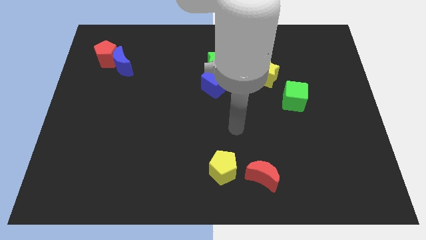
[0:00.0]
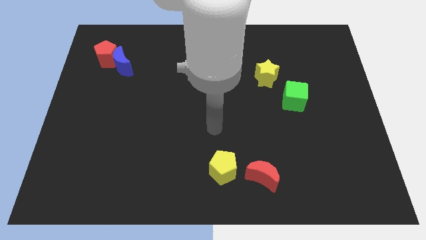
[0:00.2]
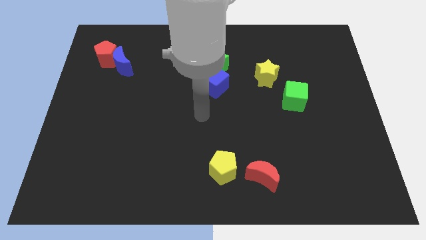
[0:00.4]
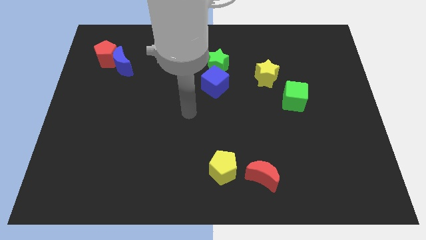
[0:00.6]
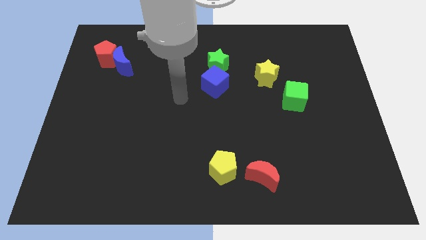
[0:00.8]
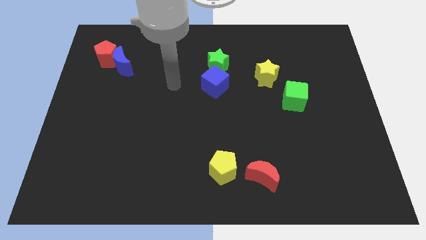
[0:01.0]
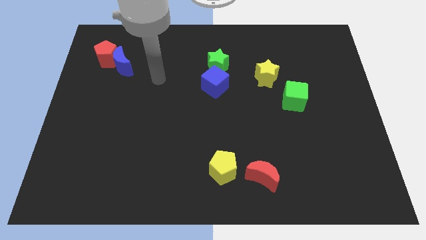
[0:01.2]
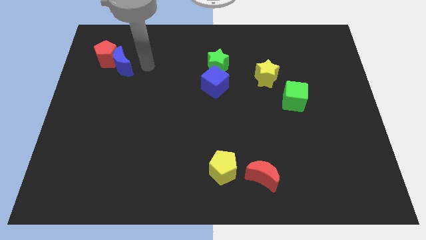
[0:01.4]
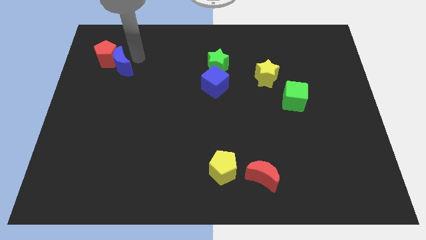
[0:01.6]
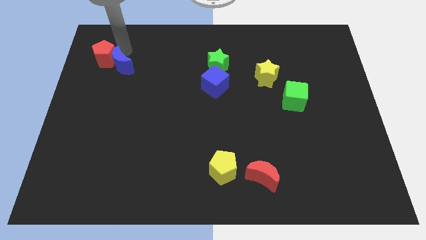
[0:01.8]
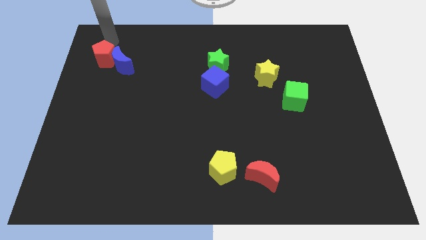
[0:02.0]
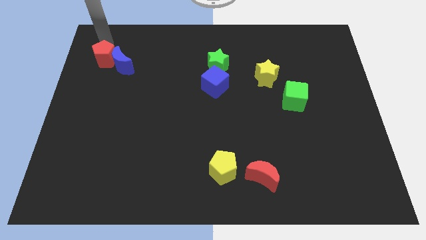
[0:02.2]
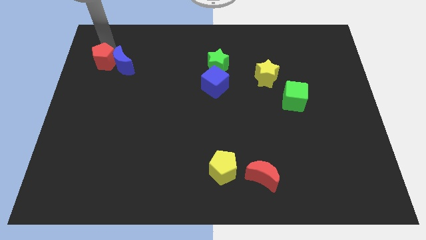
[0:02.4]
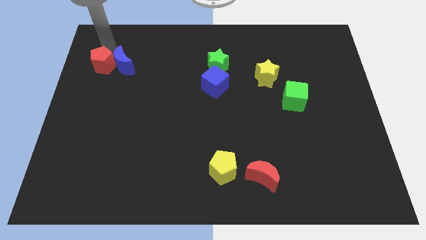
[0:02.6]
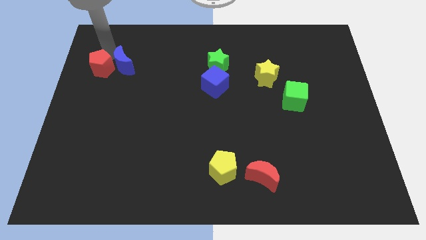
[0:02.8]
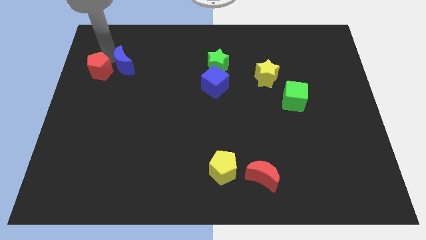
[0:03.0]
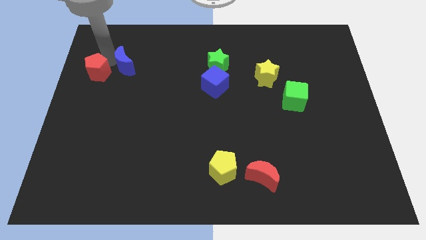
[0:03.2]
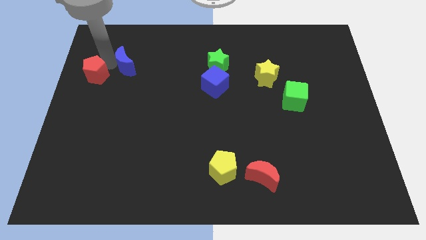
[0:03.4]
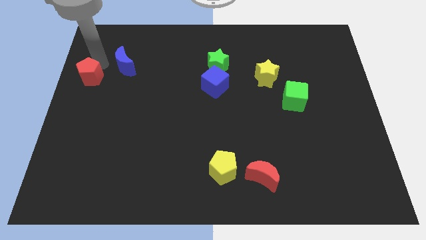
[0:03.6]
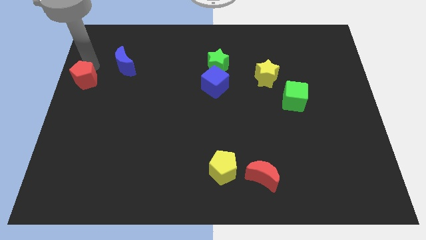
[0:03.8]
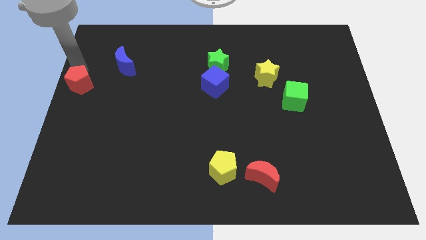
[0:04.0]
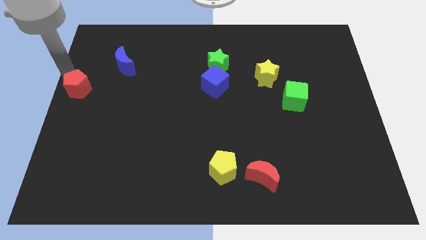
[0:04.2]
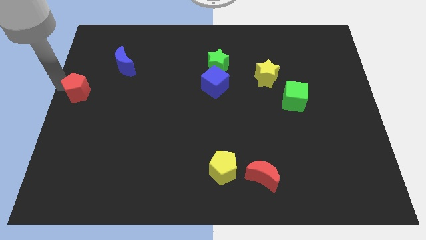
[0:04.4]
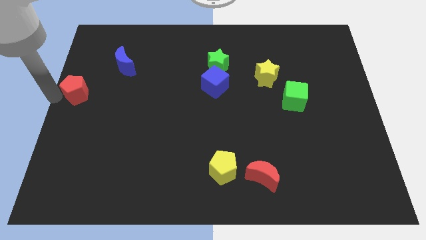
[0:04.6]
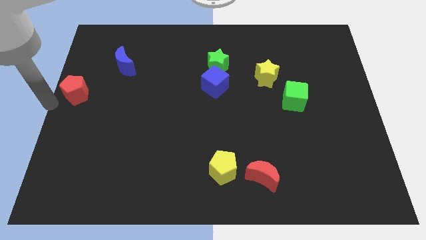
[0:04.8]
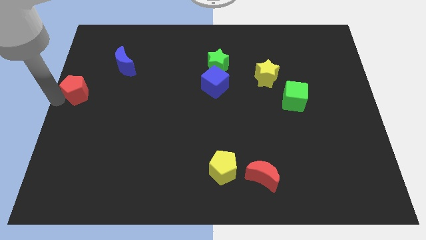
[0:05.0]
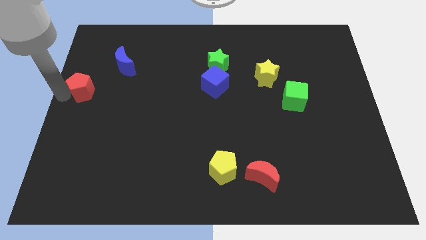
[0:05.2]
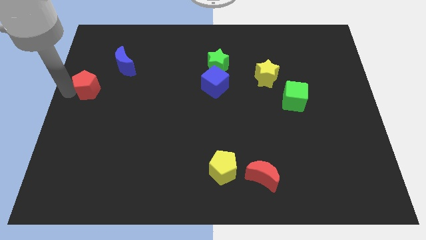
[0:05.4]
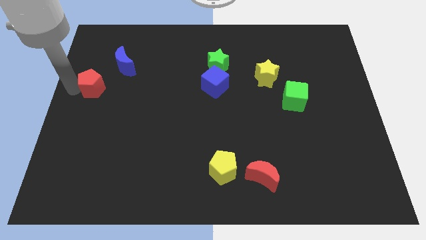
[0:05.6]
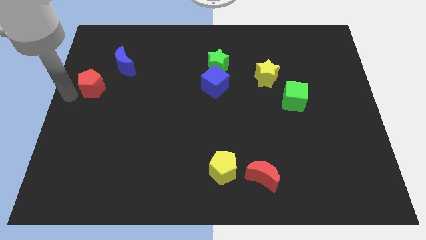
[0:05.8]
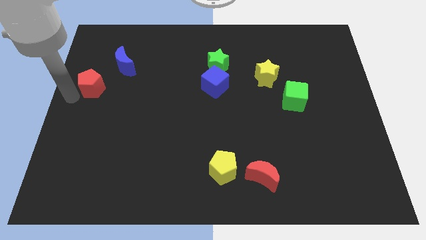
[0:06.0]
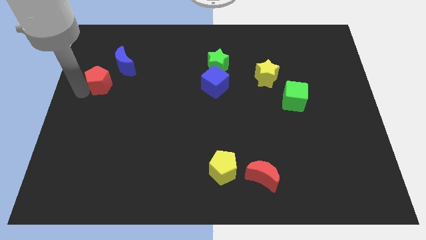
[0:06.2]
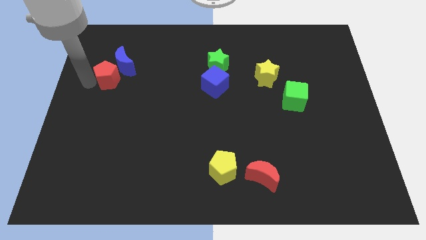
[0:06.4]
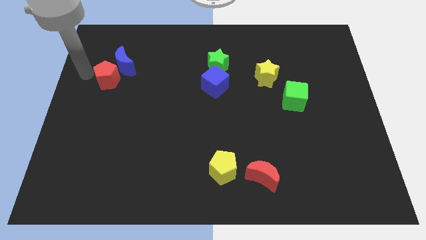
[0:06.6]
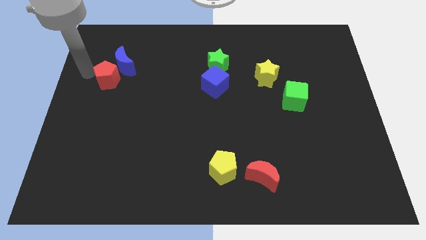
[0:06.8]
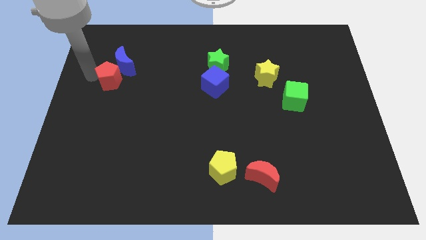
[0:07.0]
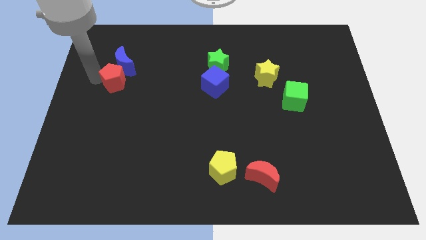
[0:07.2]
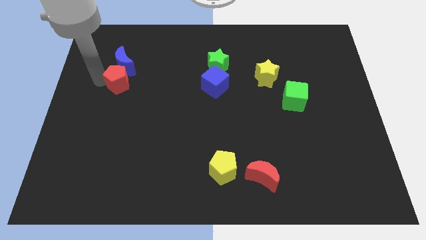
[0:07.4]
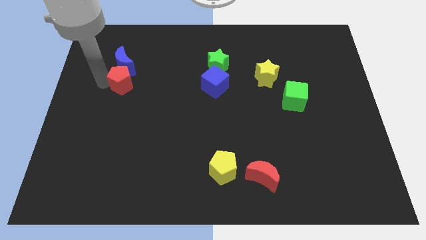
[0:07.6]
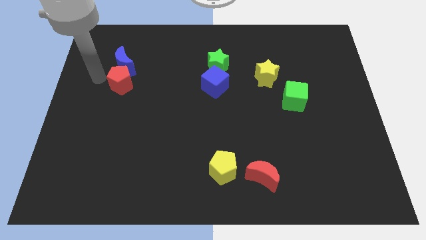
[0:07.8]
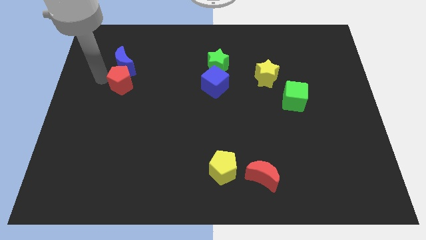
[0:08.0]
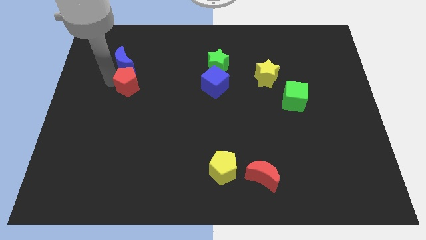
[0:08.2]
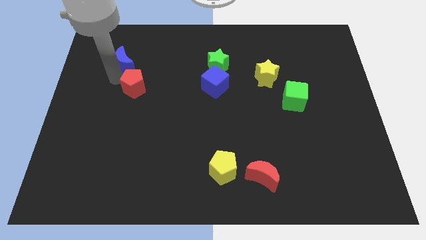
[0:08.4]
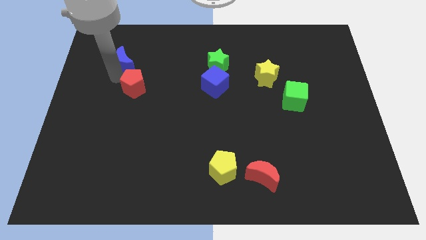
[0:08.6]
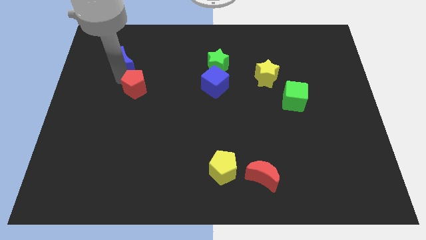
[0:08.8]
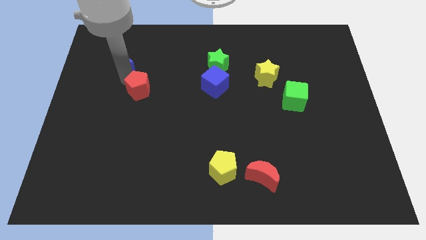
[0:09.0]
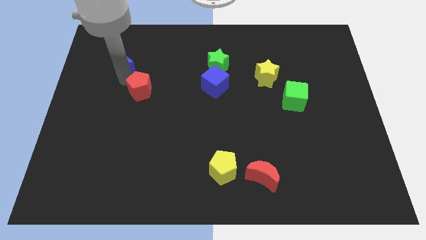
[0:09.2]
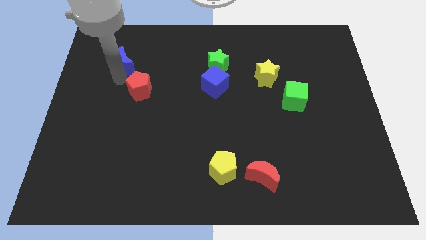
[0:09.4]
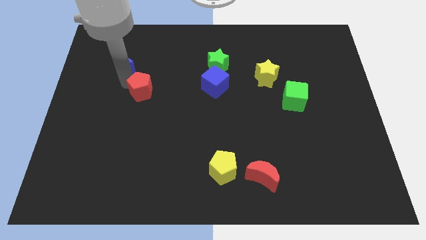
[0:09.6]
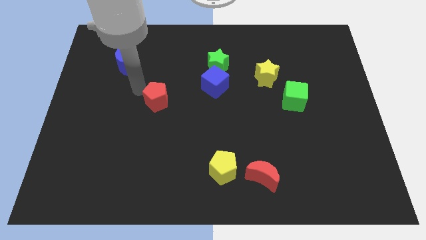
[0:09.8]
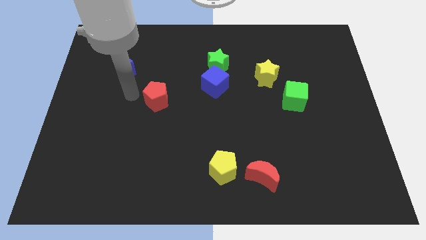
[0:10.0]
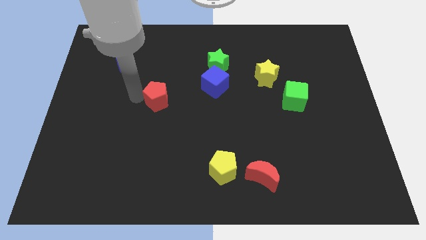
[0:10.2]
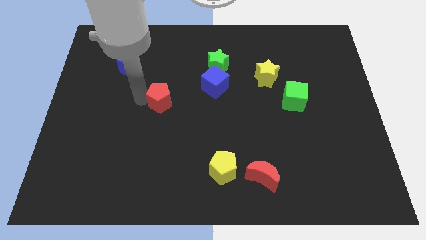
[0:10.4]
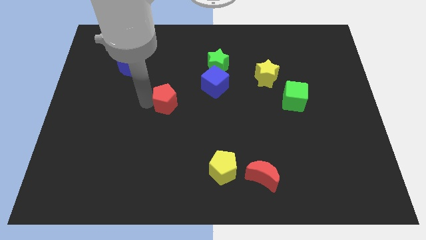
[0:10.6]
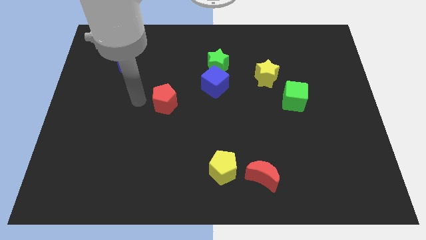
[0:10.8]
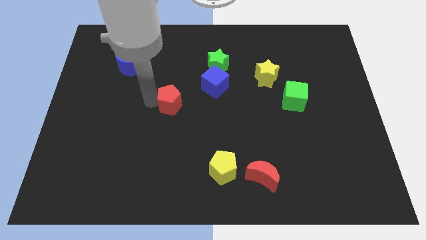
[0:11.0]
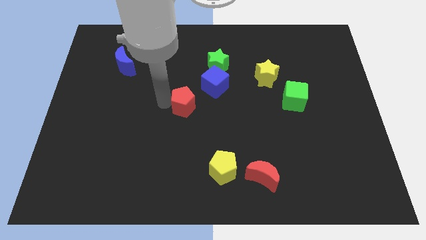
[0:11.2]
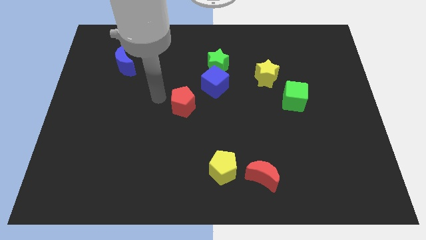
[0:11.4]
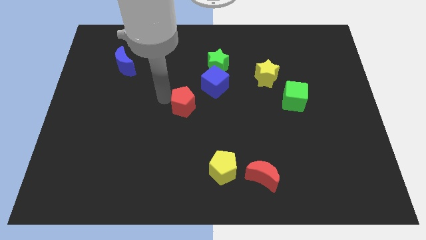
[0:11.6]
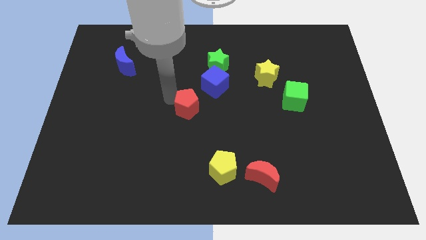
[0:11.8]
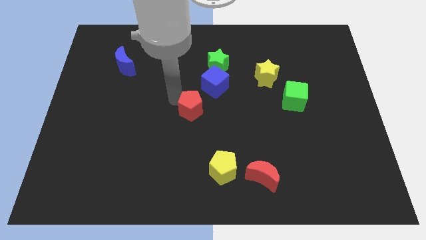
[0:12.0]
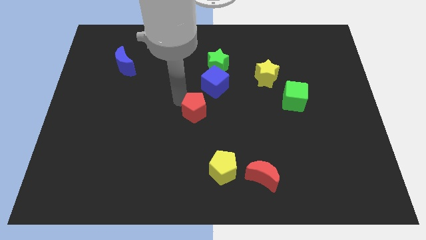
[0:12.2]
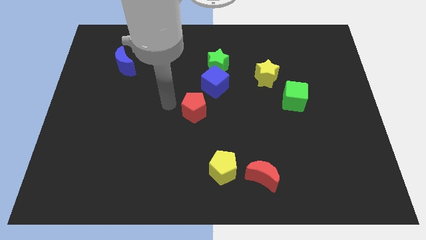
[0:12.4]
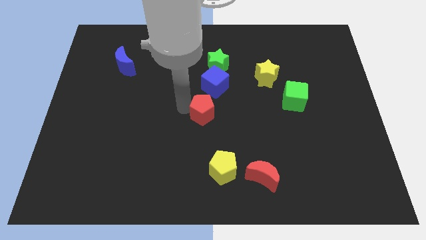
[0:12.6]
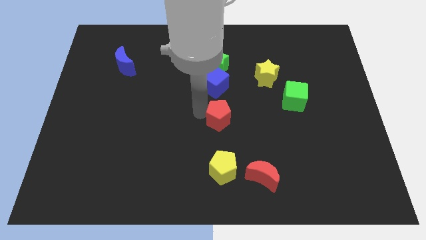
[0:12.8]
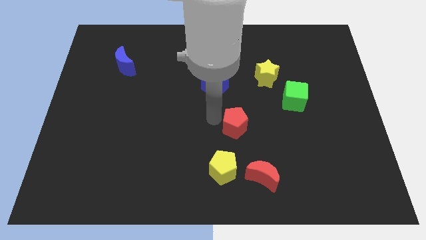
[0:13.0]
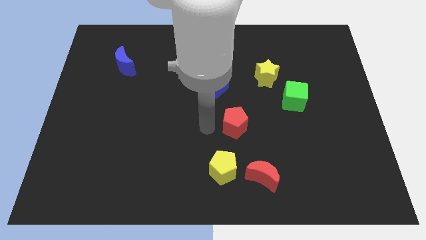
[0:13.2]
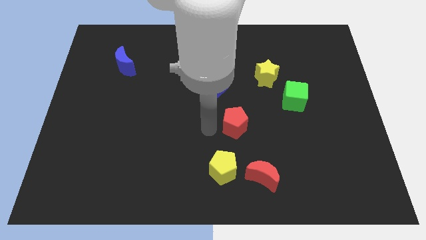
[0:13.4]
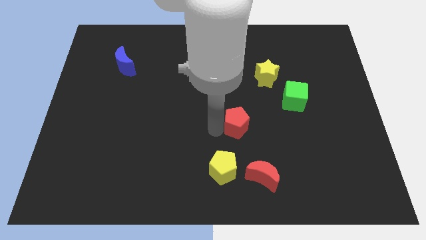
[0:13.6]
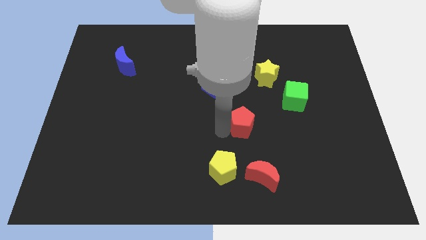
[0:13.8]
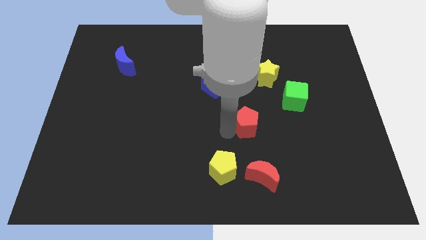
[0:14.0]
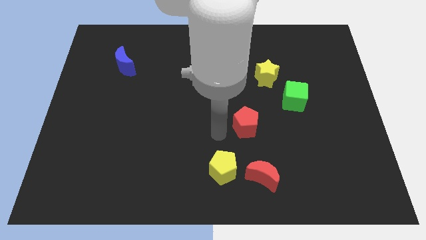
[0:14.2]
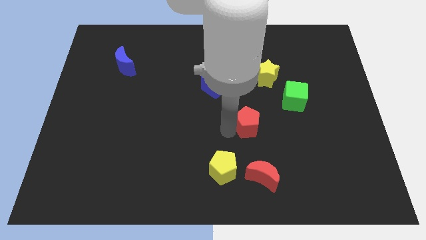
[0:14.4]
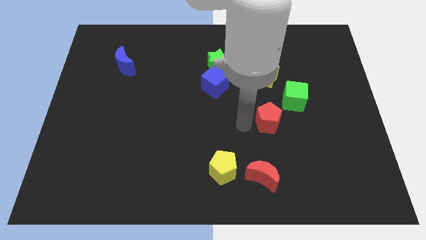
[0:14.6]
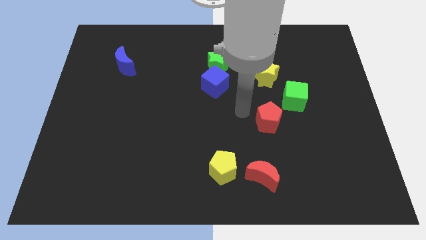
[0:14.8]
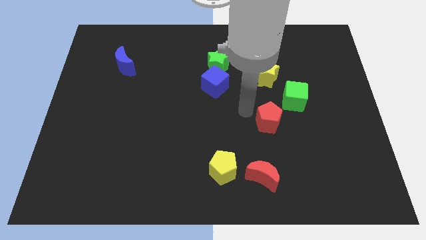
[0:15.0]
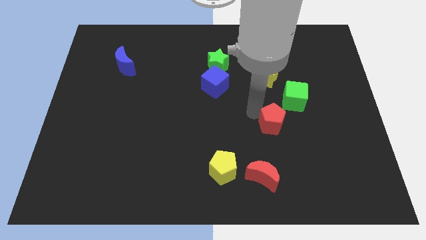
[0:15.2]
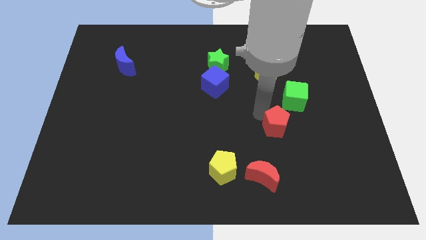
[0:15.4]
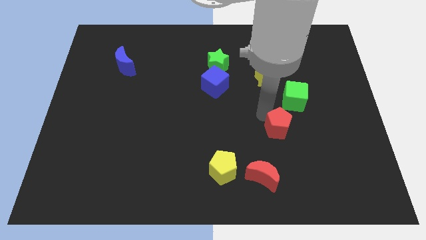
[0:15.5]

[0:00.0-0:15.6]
push the red pentagon to the bottom of the green cube
